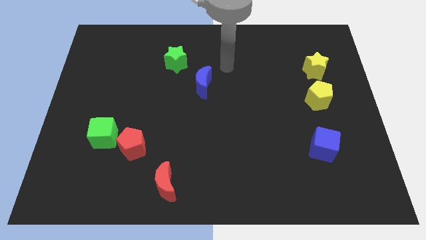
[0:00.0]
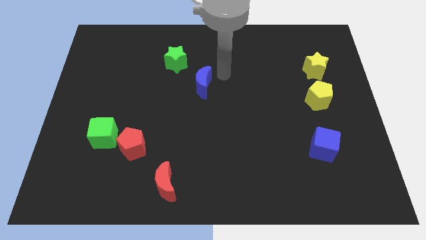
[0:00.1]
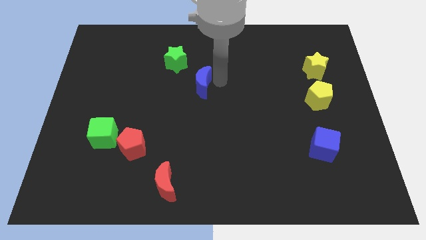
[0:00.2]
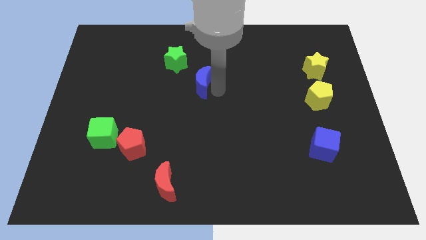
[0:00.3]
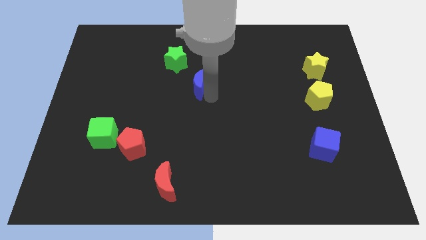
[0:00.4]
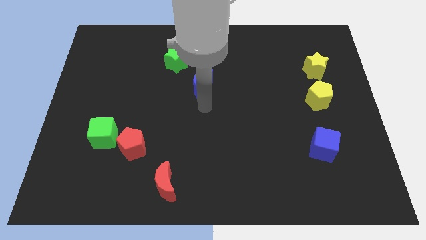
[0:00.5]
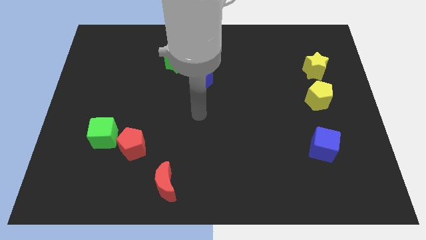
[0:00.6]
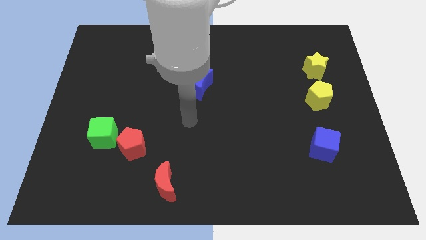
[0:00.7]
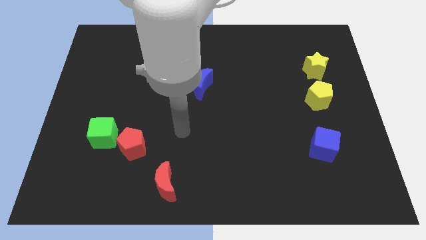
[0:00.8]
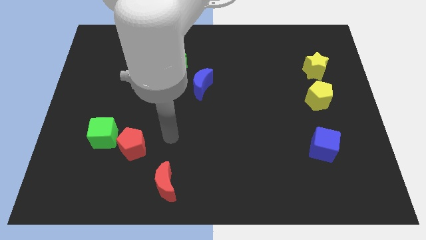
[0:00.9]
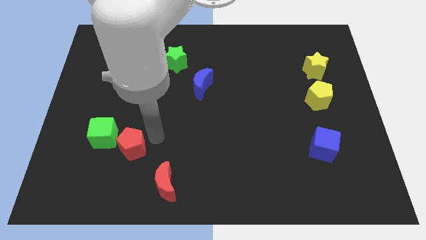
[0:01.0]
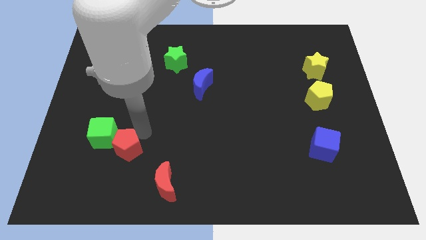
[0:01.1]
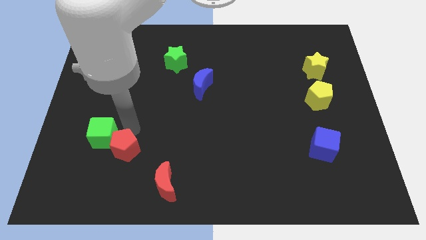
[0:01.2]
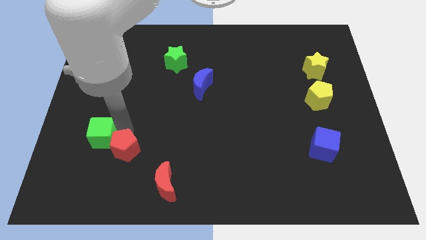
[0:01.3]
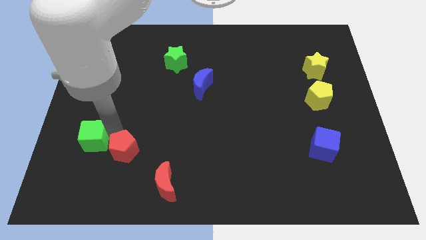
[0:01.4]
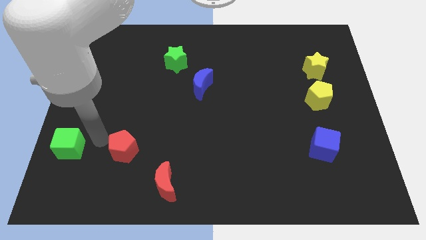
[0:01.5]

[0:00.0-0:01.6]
separate the red pentagon from the green cube

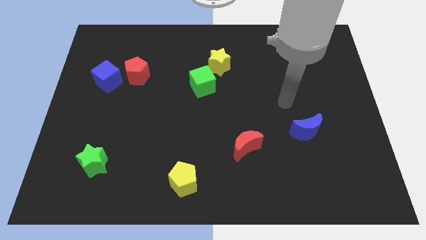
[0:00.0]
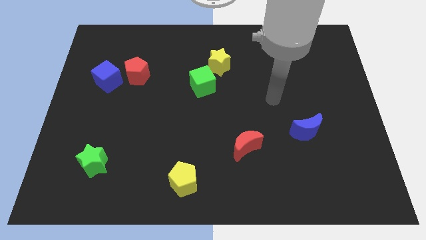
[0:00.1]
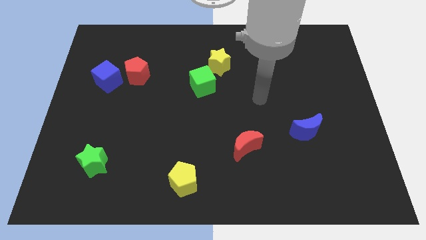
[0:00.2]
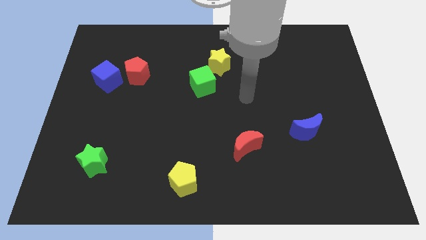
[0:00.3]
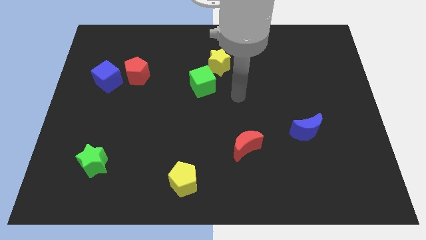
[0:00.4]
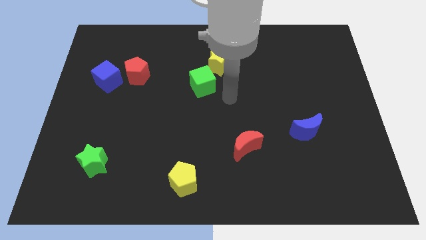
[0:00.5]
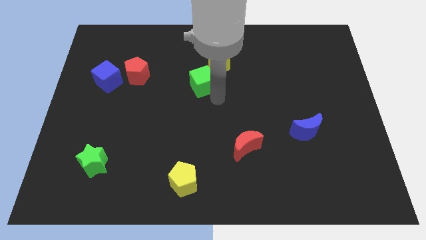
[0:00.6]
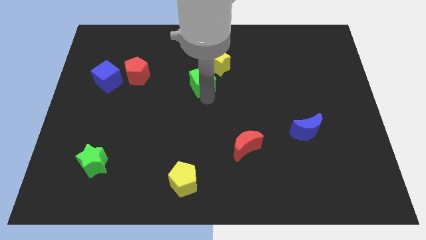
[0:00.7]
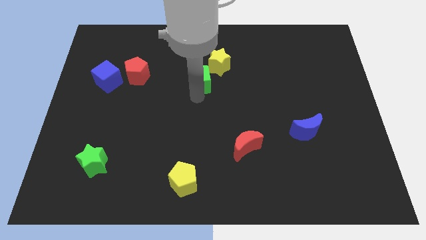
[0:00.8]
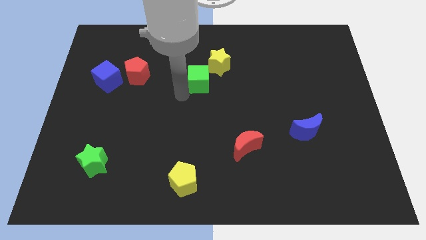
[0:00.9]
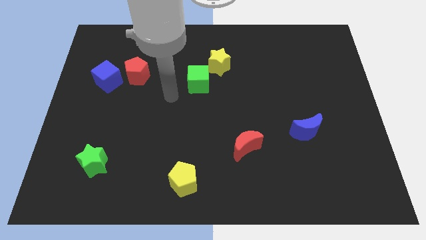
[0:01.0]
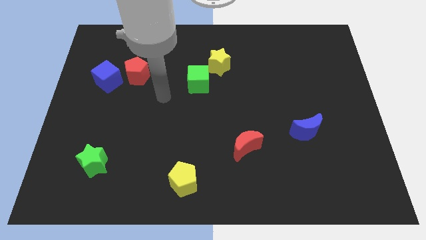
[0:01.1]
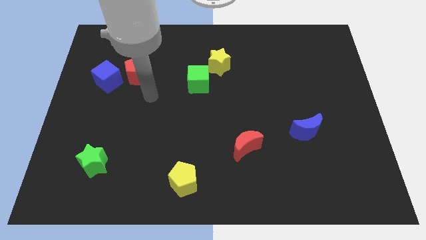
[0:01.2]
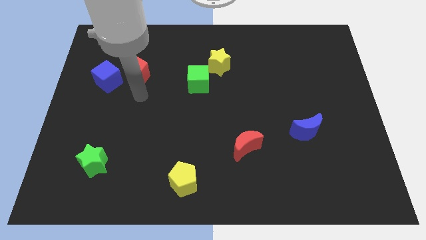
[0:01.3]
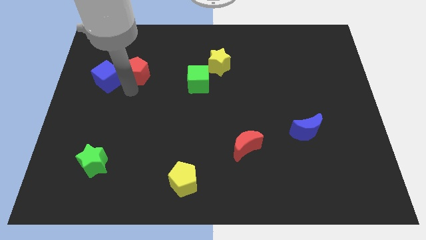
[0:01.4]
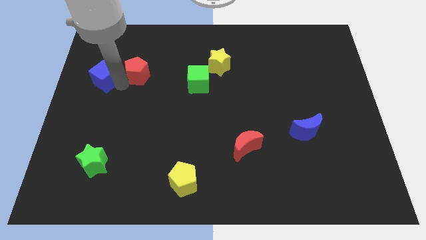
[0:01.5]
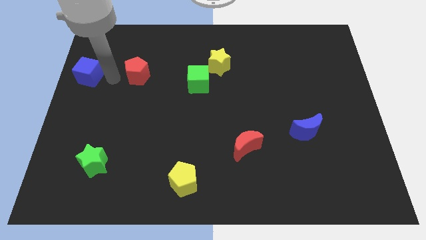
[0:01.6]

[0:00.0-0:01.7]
separate the red pentagon from the blue cube

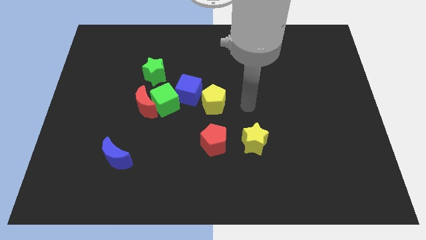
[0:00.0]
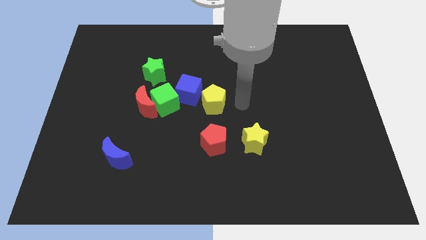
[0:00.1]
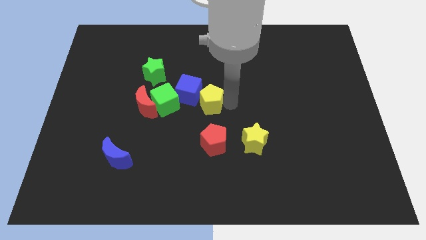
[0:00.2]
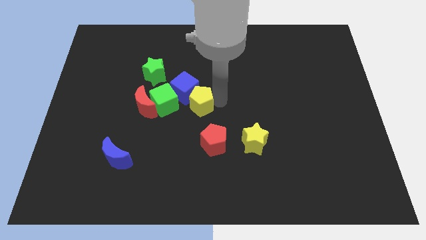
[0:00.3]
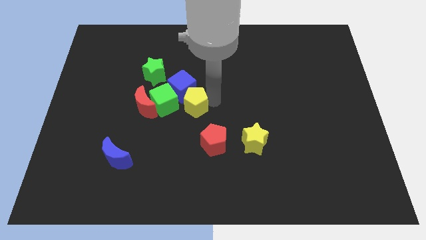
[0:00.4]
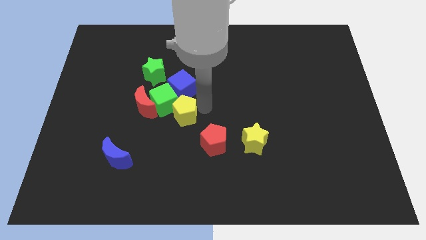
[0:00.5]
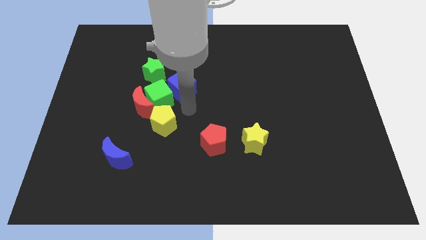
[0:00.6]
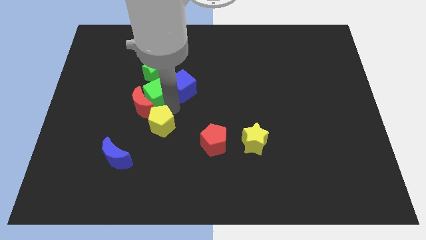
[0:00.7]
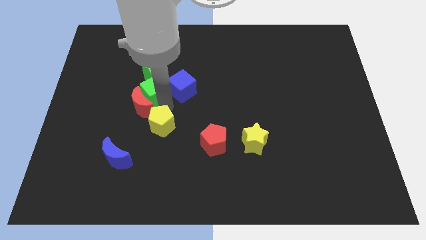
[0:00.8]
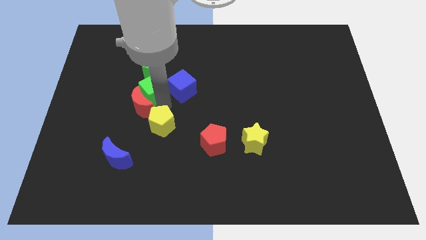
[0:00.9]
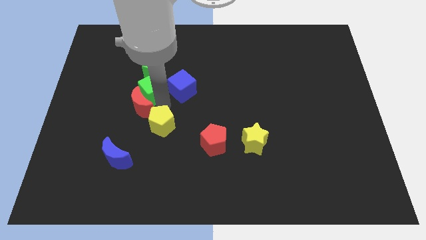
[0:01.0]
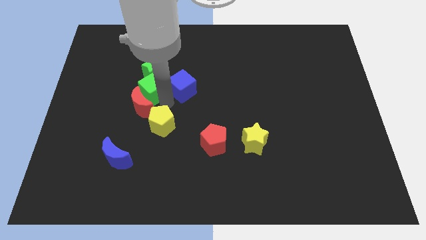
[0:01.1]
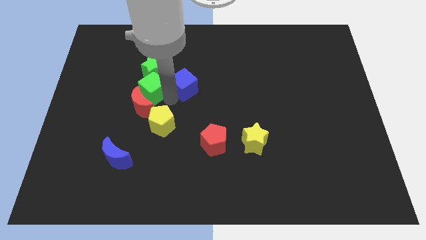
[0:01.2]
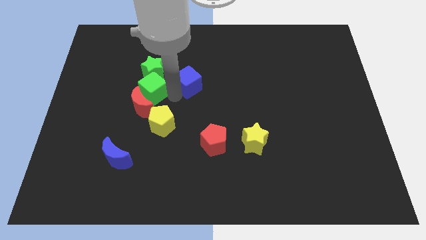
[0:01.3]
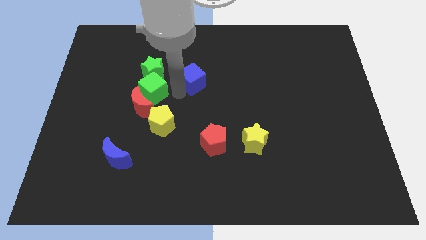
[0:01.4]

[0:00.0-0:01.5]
pull the blue cube apart from the green cube and yellow pentagon

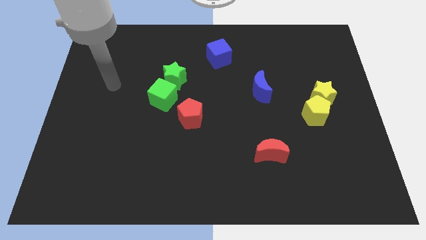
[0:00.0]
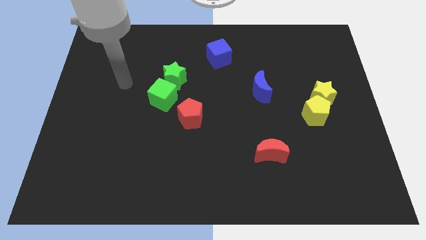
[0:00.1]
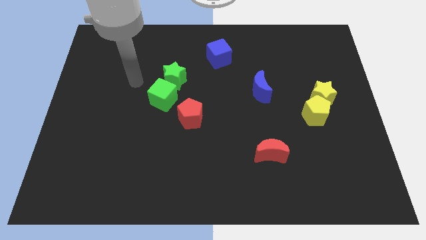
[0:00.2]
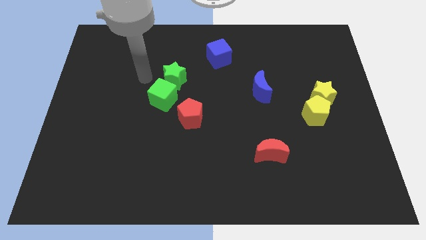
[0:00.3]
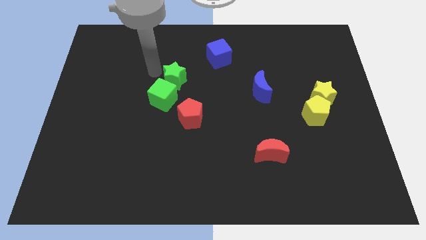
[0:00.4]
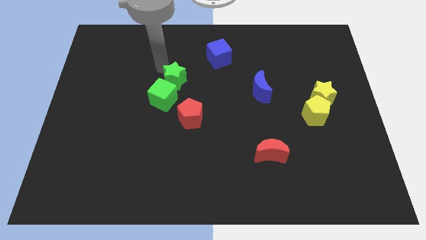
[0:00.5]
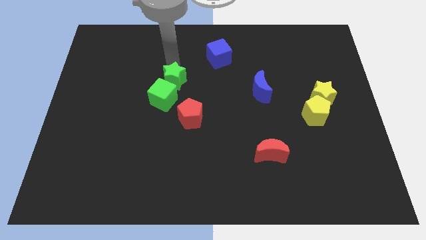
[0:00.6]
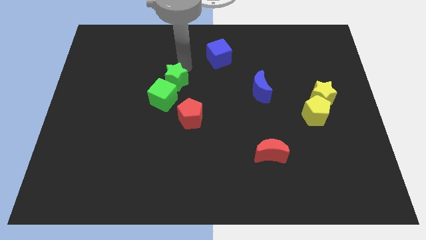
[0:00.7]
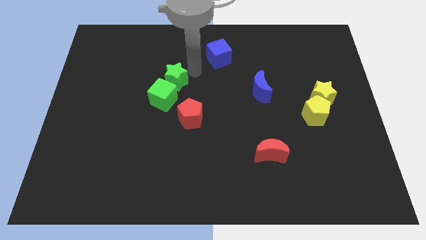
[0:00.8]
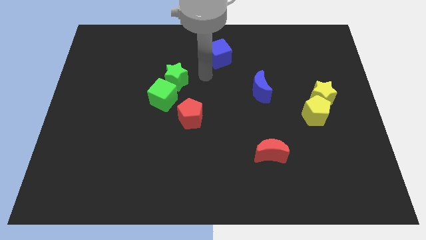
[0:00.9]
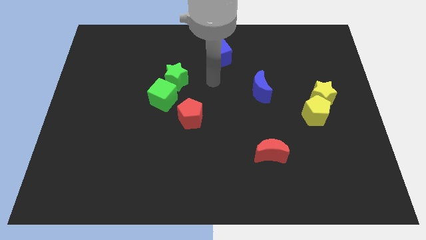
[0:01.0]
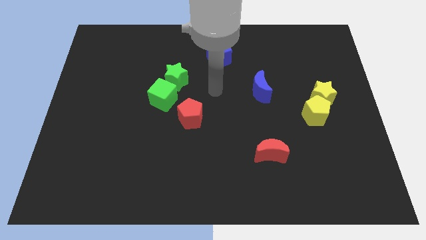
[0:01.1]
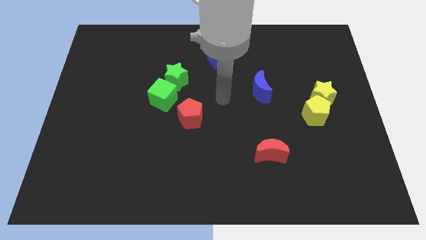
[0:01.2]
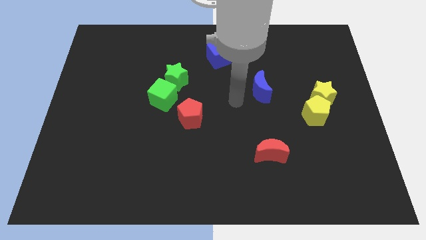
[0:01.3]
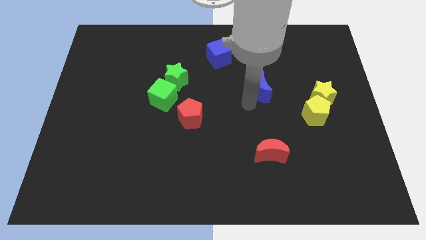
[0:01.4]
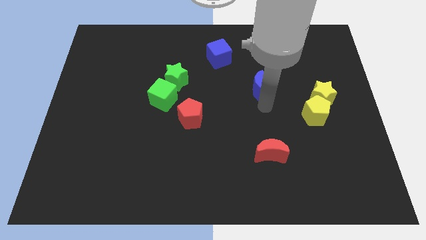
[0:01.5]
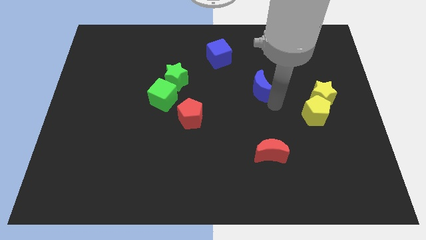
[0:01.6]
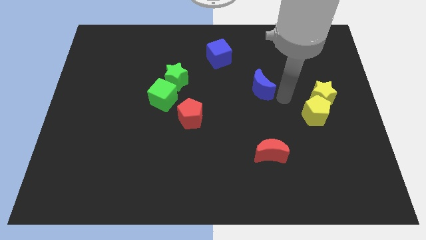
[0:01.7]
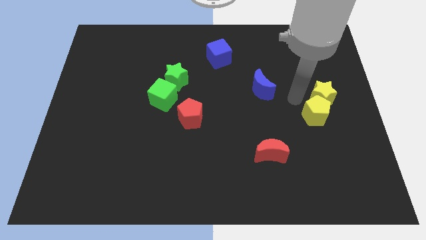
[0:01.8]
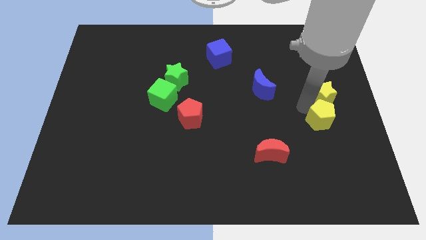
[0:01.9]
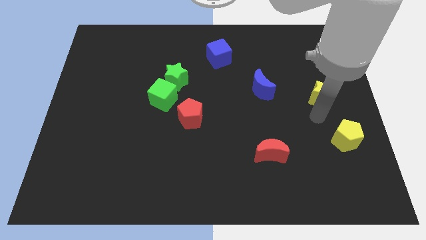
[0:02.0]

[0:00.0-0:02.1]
separate the yellow star from the yellow pentagon

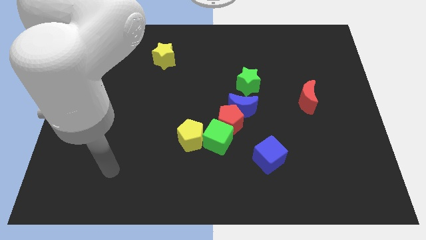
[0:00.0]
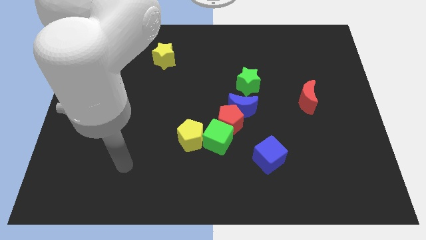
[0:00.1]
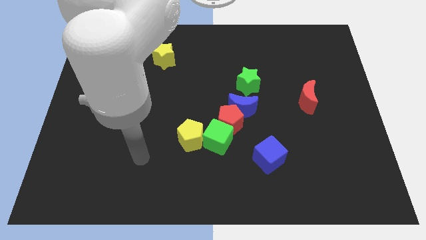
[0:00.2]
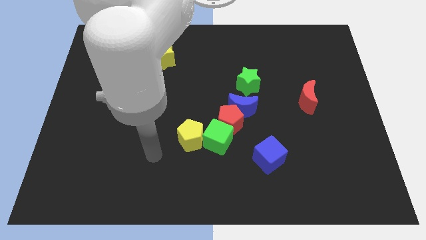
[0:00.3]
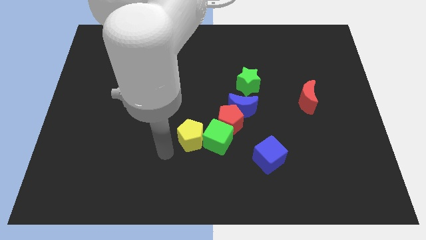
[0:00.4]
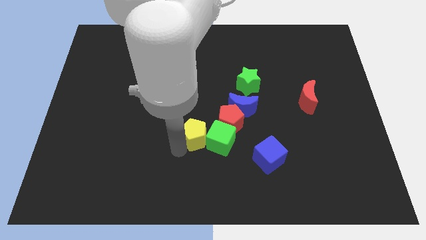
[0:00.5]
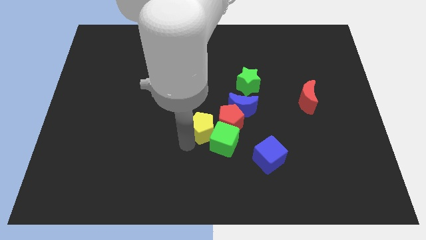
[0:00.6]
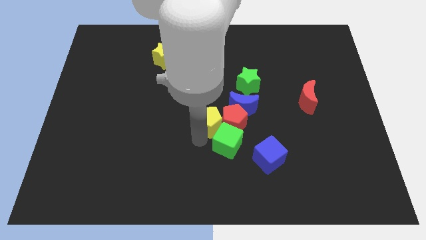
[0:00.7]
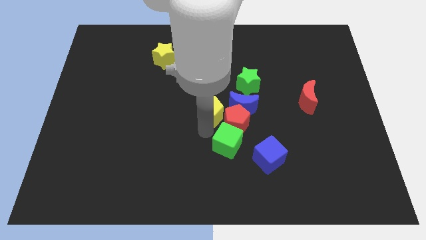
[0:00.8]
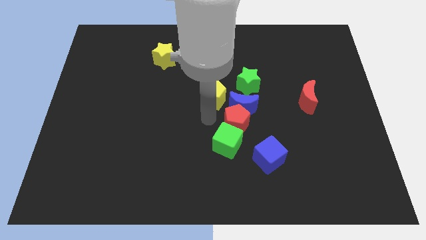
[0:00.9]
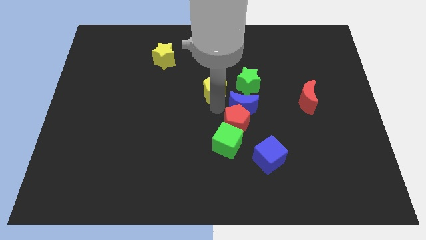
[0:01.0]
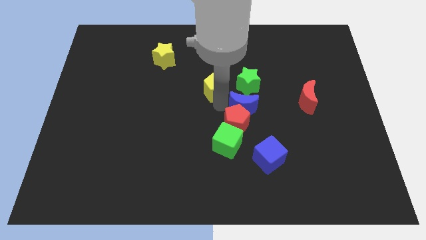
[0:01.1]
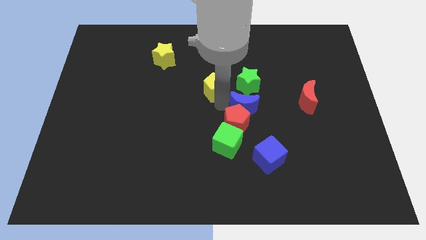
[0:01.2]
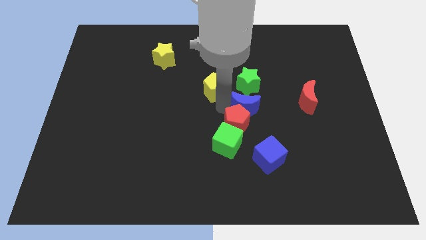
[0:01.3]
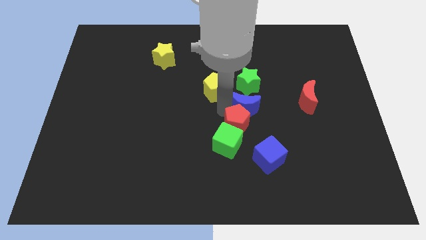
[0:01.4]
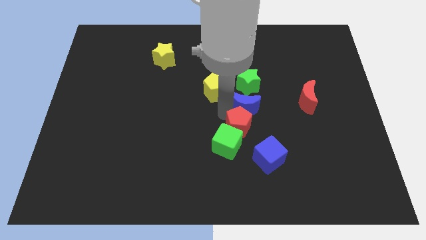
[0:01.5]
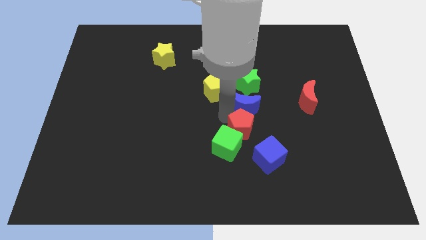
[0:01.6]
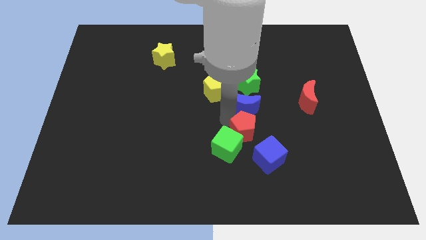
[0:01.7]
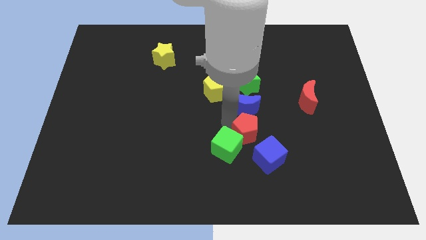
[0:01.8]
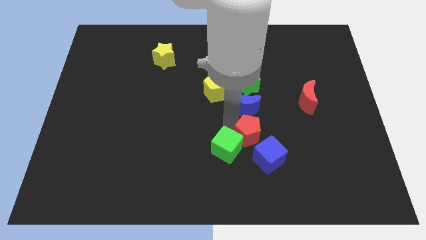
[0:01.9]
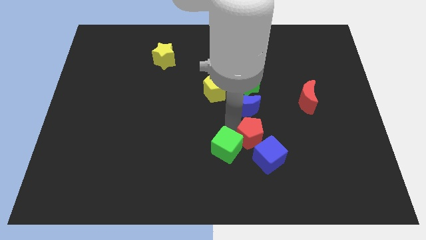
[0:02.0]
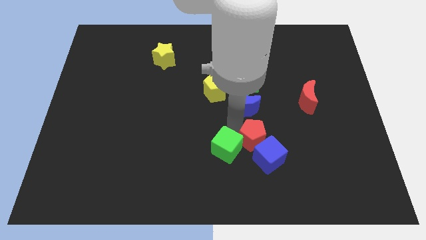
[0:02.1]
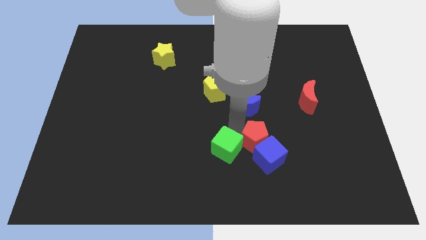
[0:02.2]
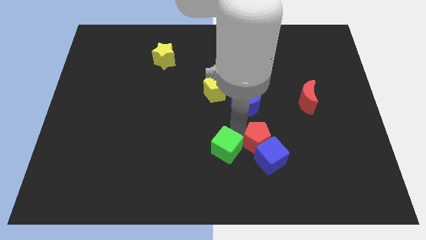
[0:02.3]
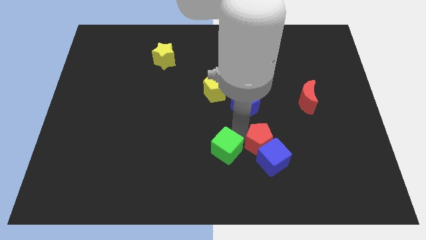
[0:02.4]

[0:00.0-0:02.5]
move the red pentagon away from the blue moon, green cube, and yellow pentagon
